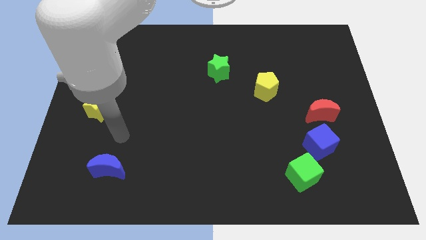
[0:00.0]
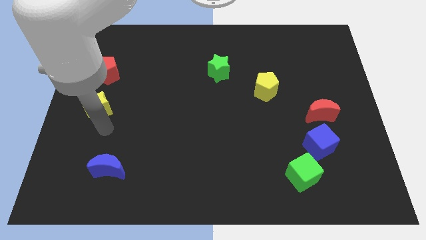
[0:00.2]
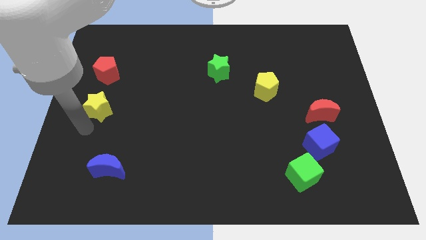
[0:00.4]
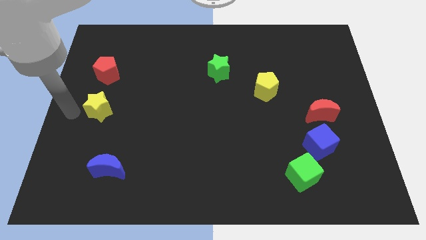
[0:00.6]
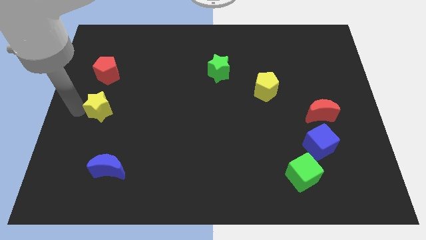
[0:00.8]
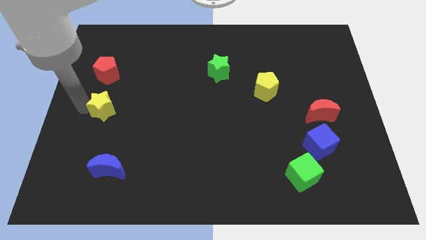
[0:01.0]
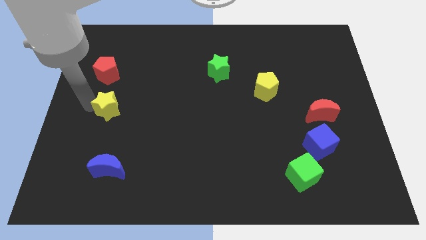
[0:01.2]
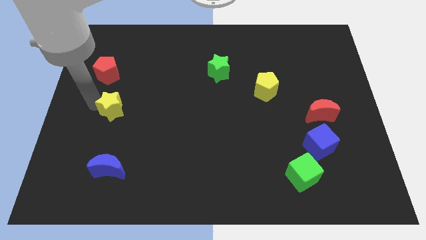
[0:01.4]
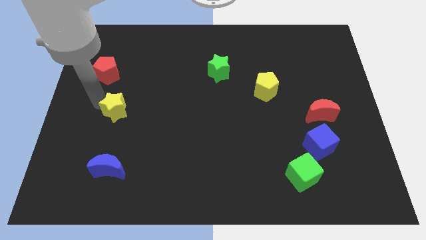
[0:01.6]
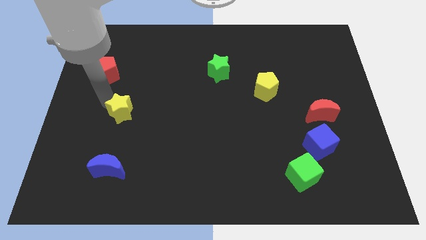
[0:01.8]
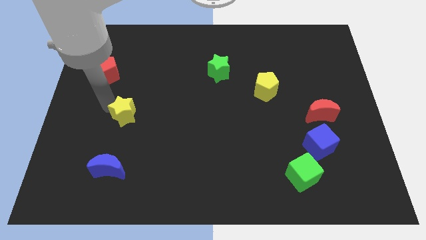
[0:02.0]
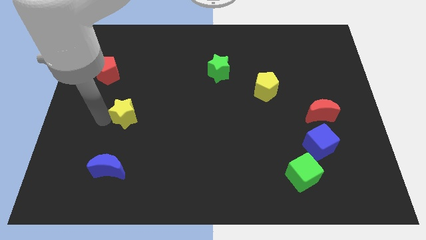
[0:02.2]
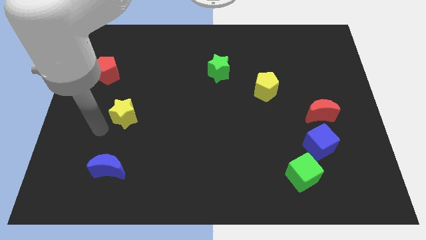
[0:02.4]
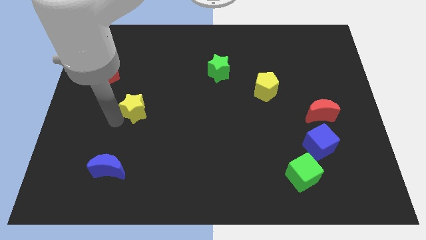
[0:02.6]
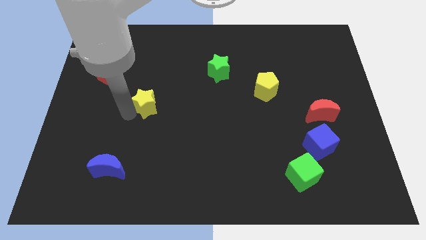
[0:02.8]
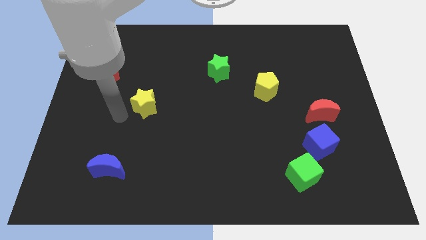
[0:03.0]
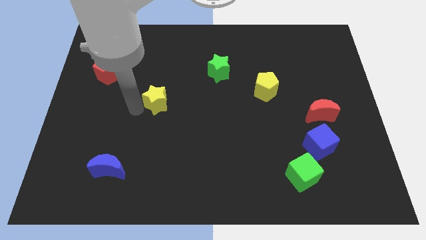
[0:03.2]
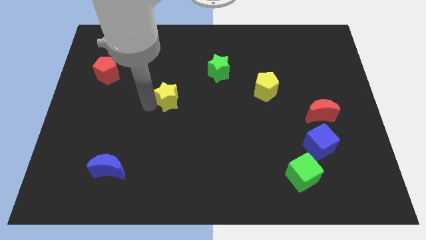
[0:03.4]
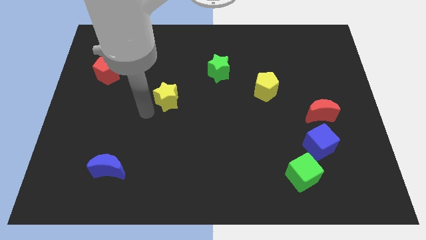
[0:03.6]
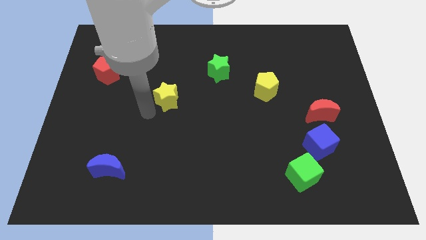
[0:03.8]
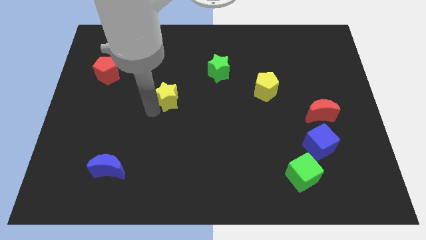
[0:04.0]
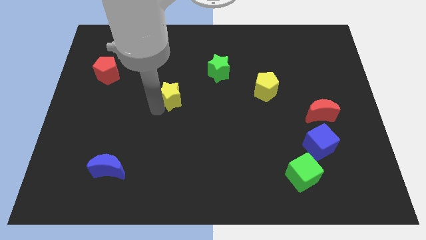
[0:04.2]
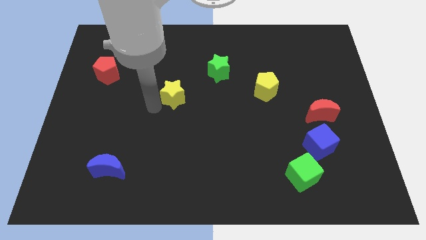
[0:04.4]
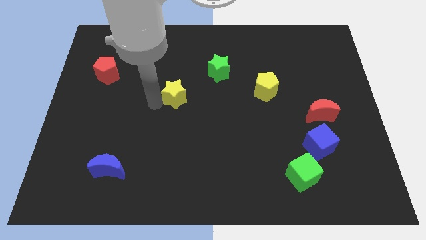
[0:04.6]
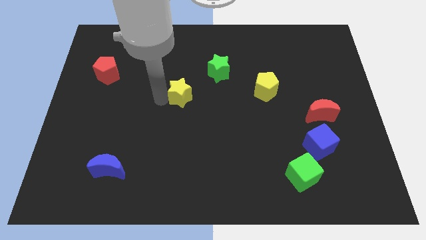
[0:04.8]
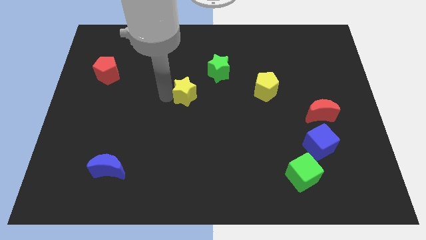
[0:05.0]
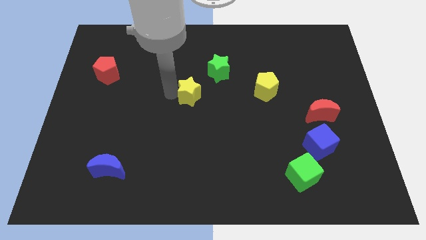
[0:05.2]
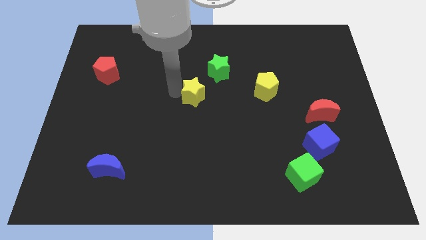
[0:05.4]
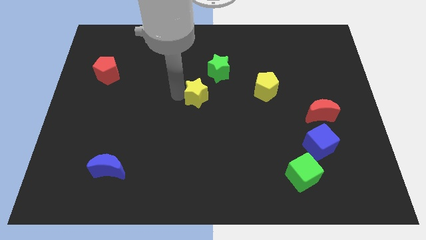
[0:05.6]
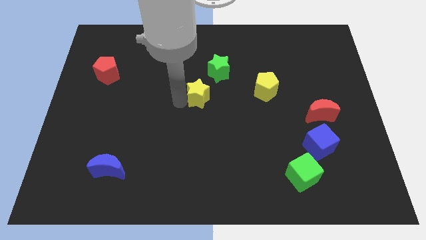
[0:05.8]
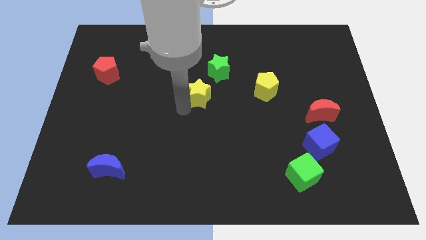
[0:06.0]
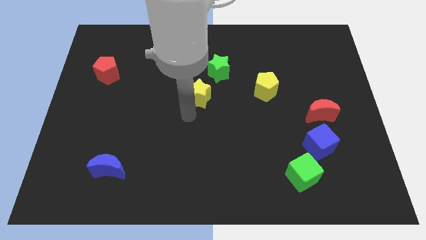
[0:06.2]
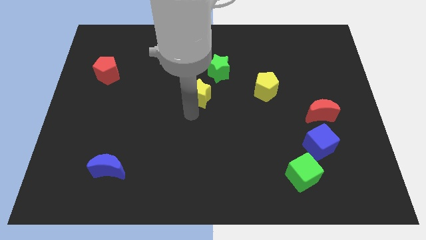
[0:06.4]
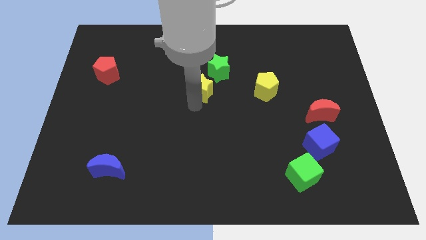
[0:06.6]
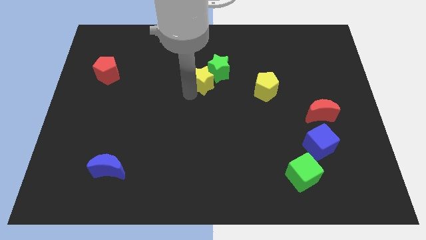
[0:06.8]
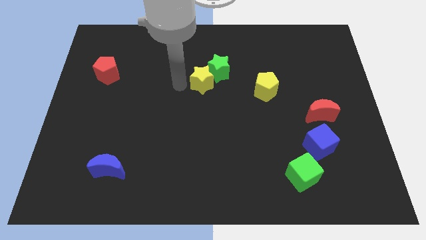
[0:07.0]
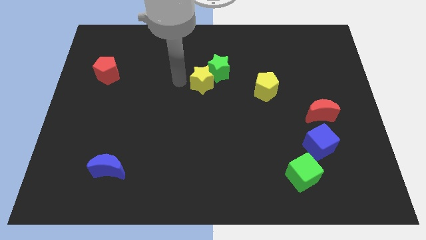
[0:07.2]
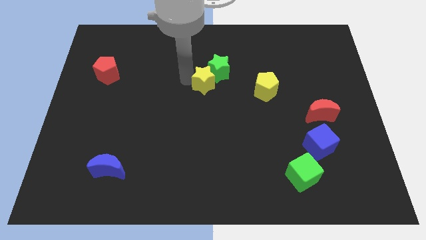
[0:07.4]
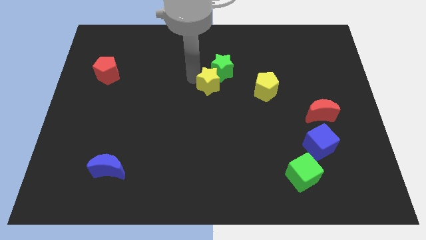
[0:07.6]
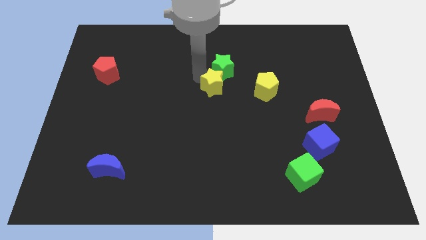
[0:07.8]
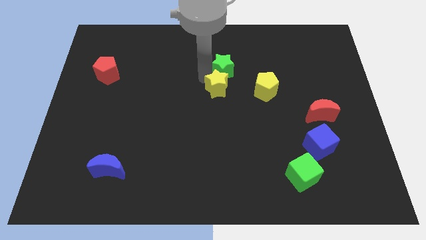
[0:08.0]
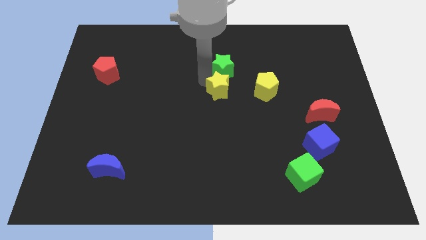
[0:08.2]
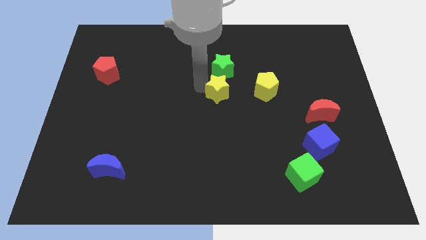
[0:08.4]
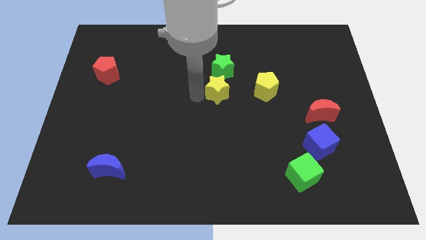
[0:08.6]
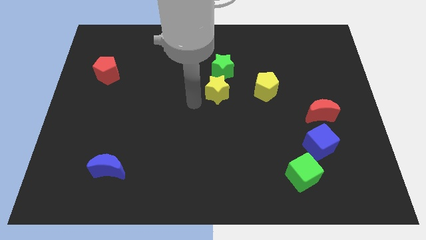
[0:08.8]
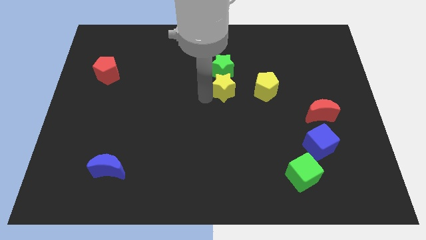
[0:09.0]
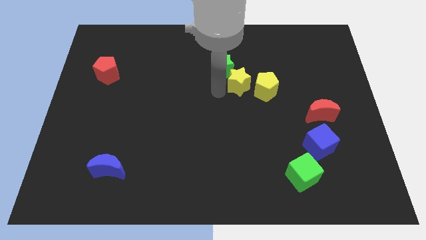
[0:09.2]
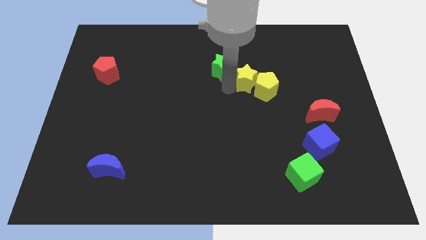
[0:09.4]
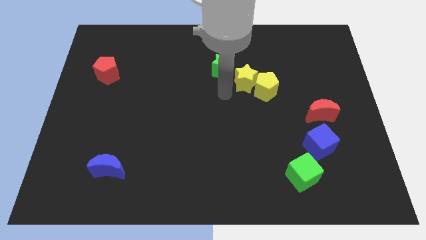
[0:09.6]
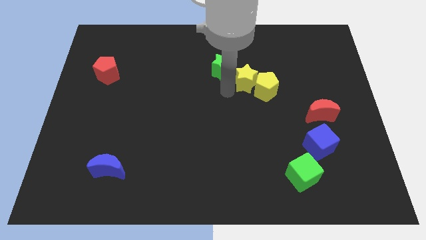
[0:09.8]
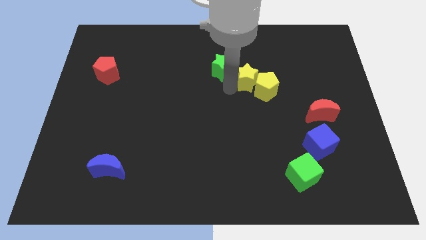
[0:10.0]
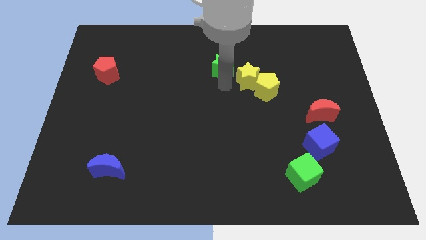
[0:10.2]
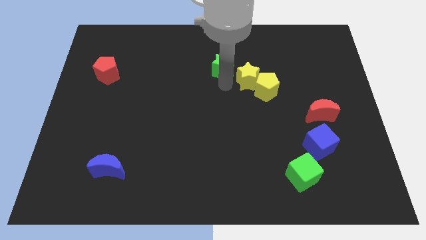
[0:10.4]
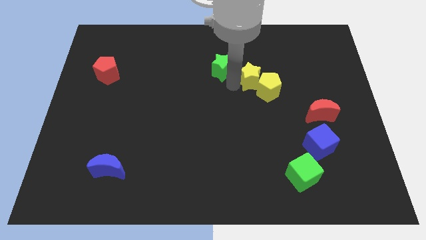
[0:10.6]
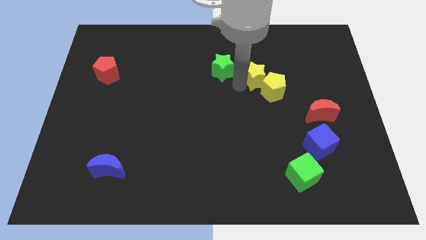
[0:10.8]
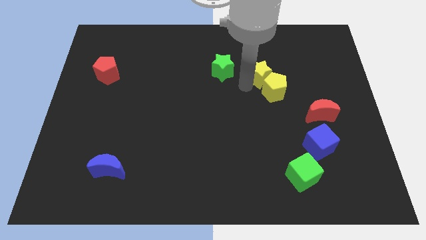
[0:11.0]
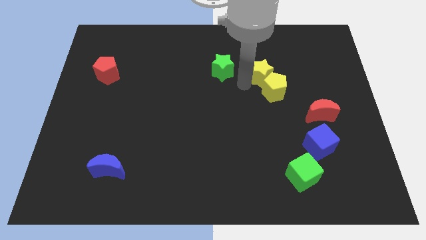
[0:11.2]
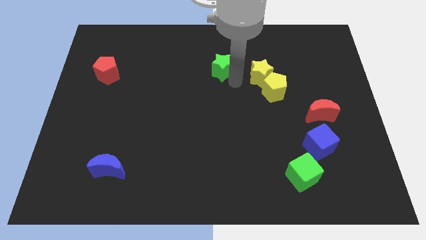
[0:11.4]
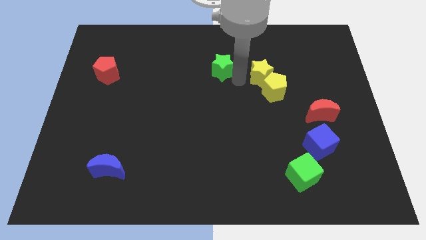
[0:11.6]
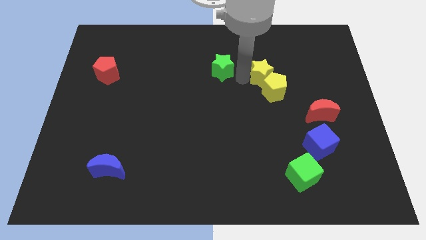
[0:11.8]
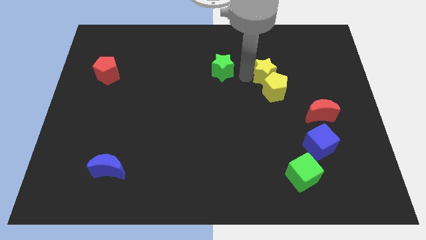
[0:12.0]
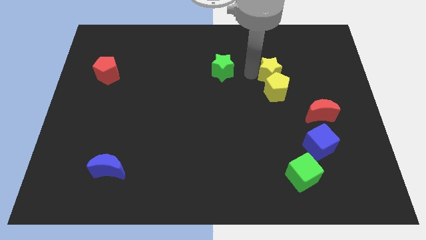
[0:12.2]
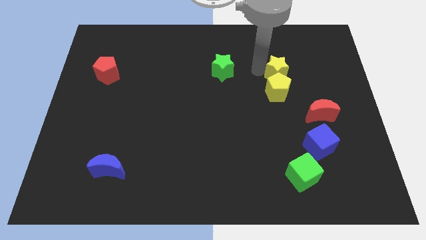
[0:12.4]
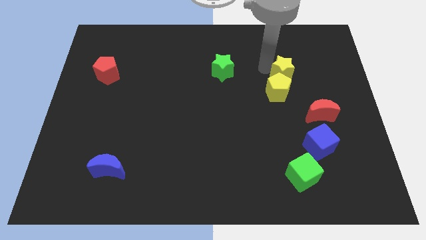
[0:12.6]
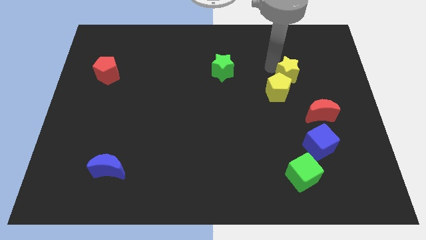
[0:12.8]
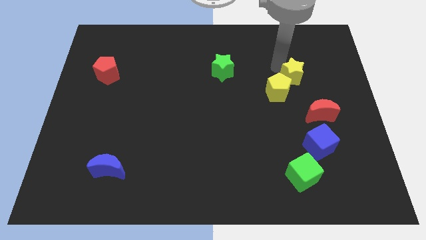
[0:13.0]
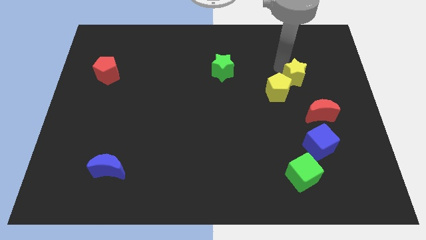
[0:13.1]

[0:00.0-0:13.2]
slide the yellow star to the top side of the red moon
